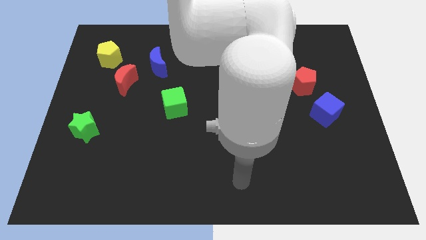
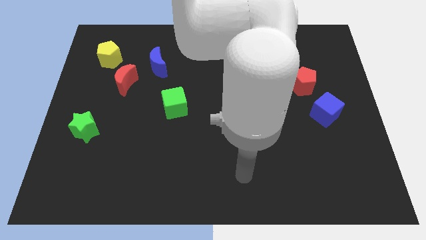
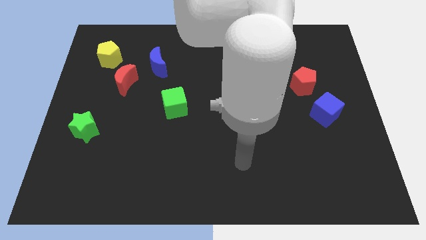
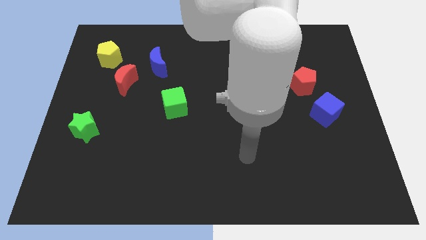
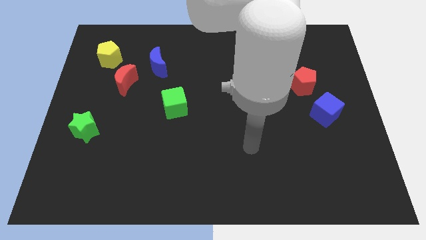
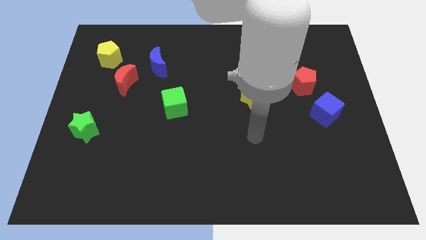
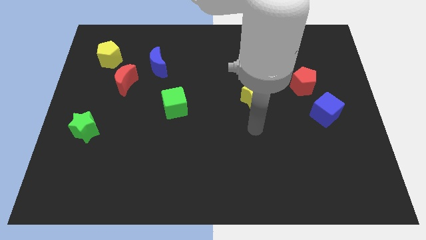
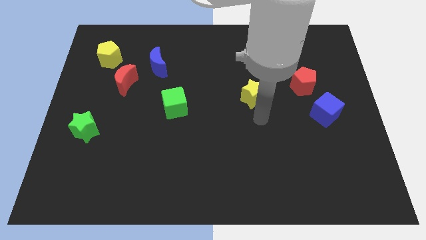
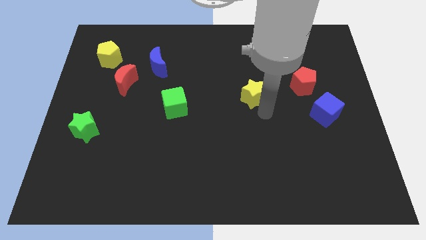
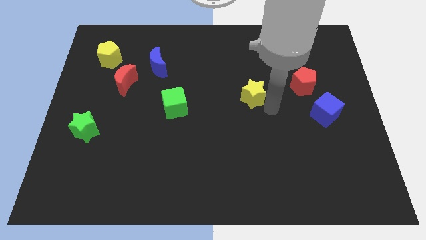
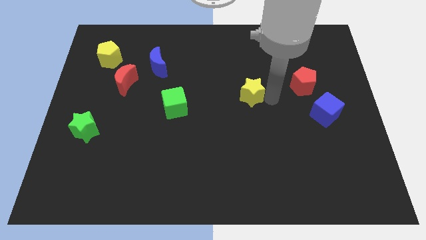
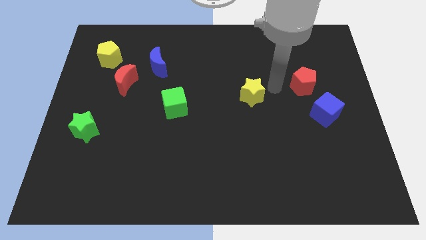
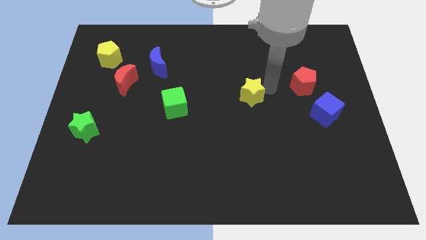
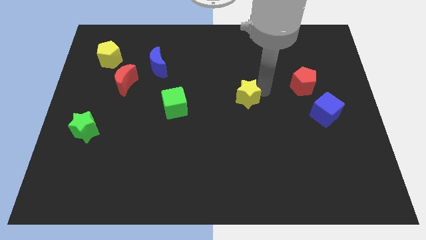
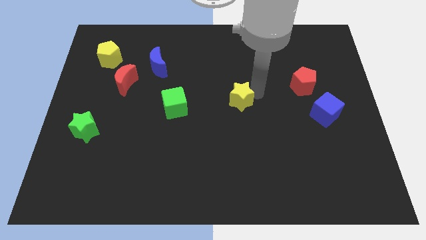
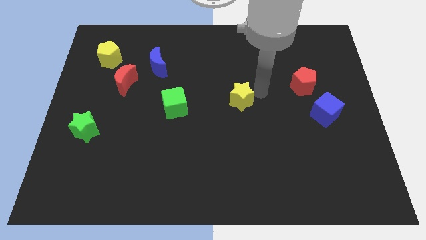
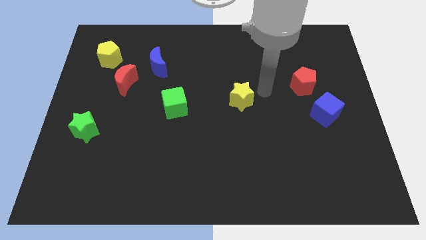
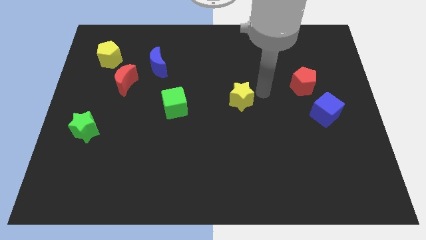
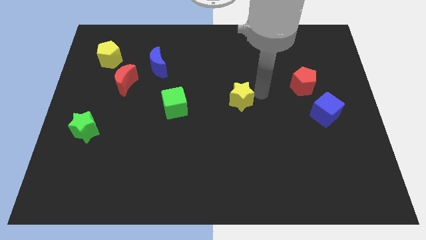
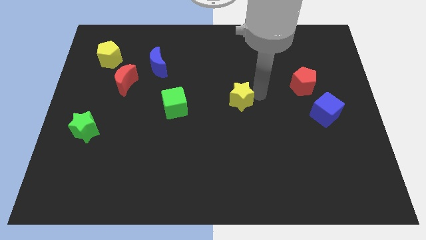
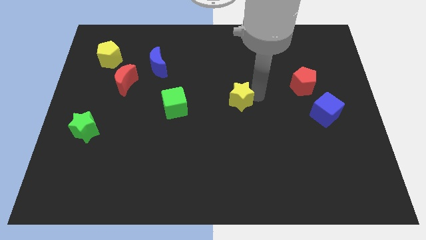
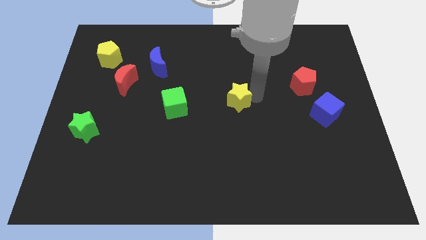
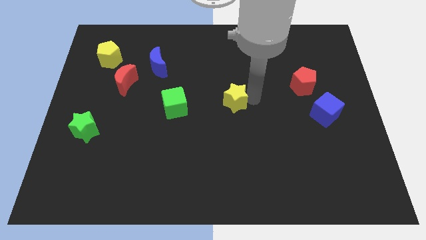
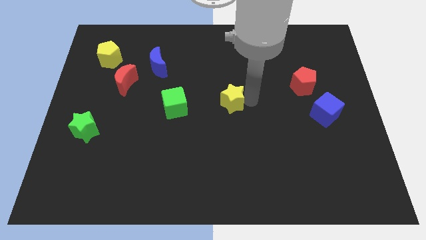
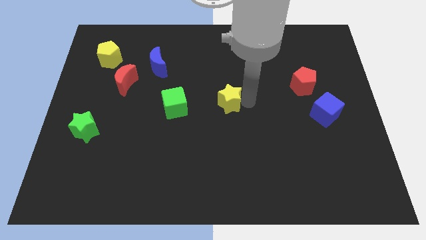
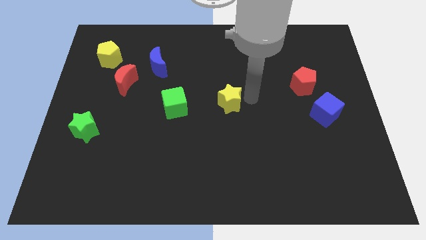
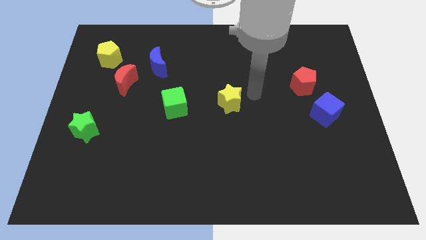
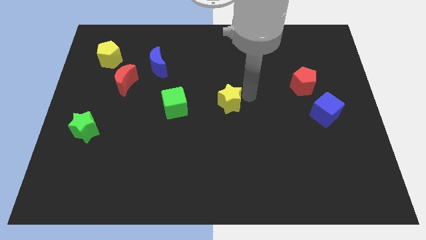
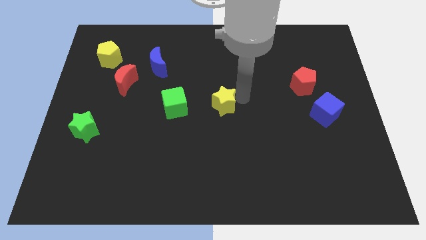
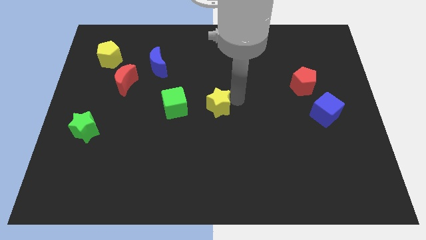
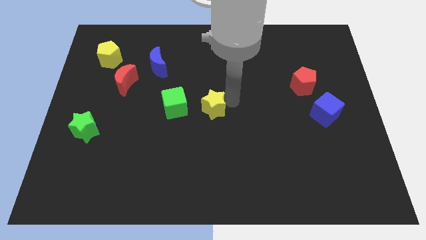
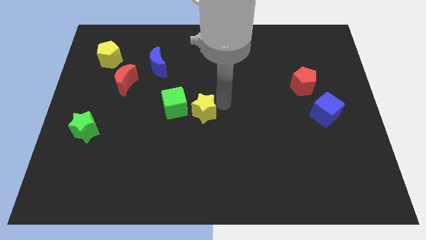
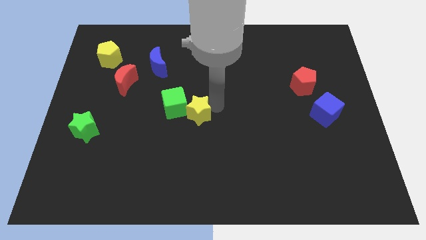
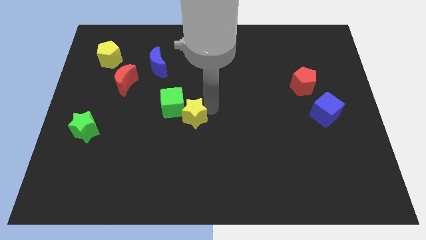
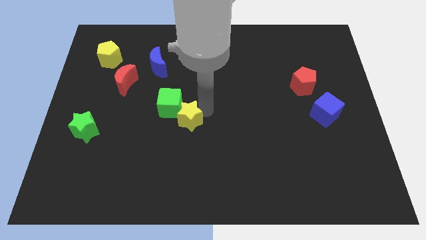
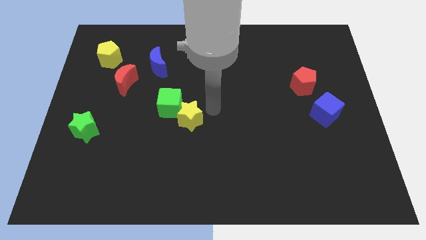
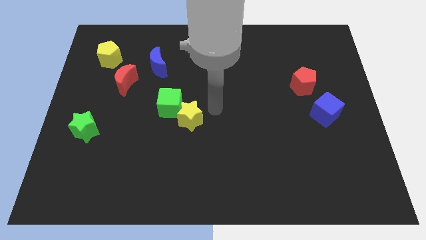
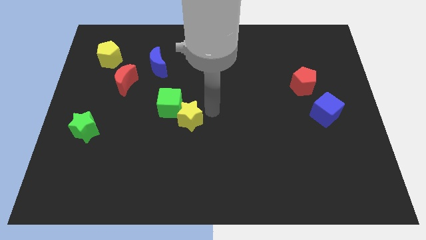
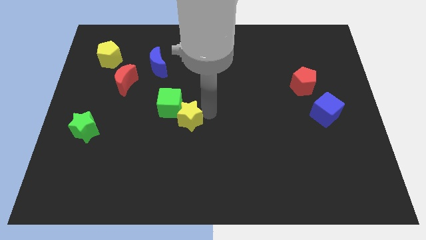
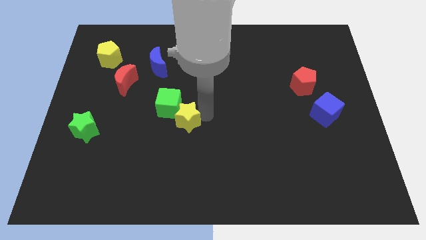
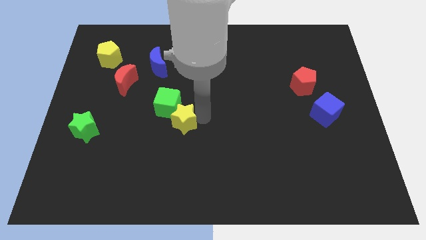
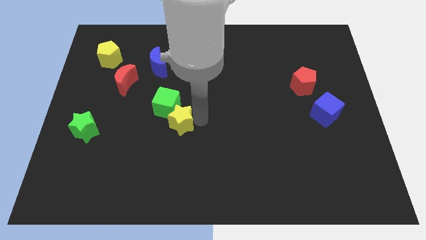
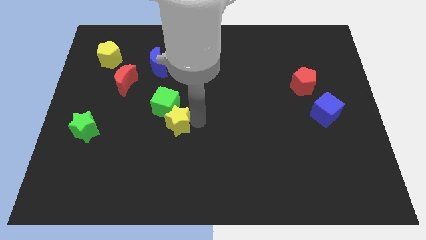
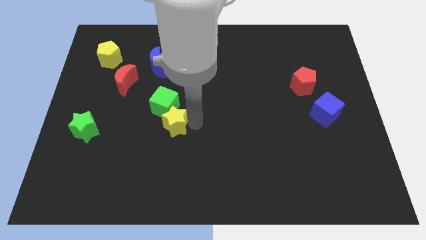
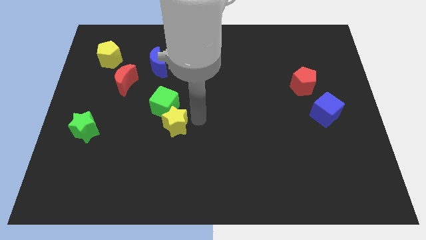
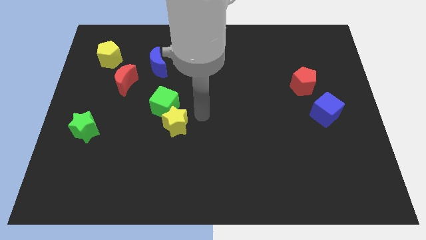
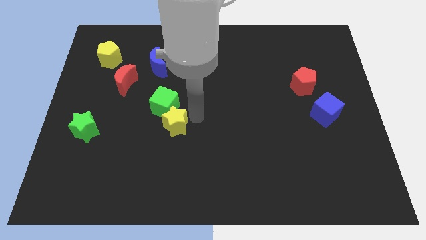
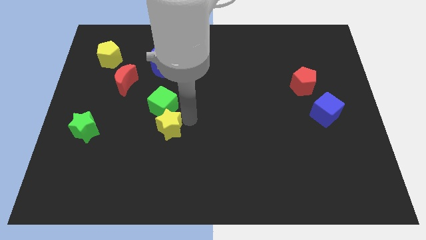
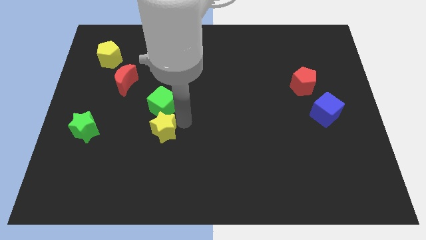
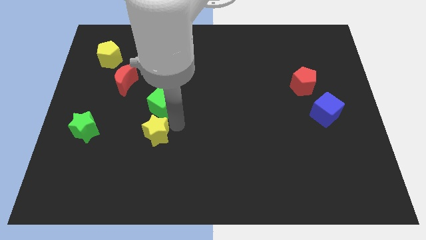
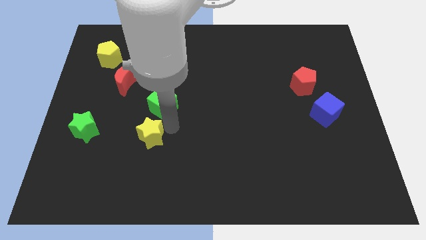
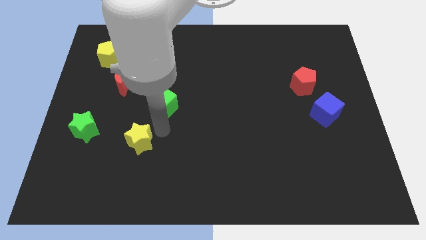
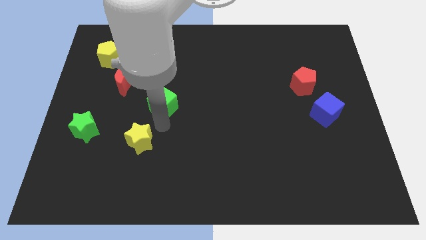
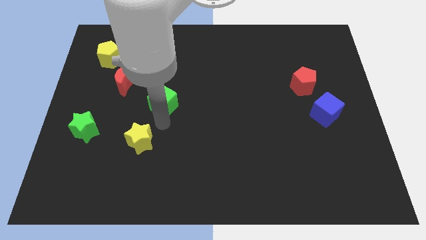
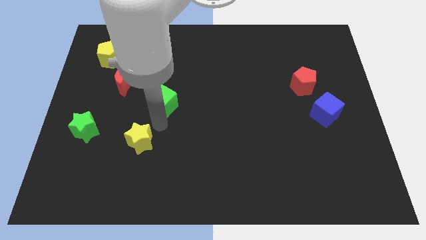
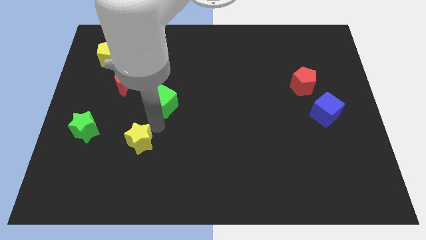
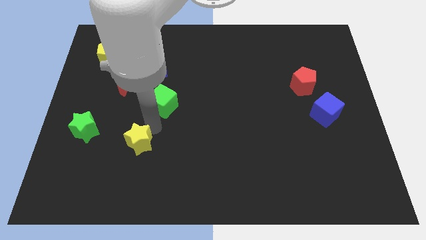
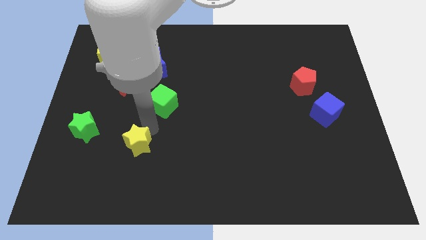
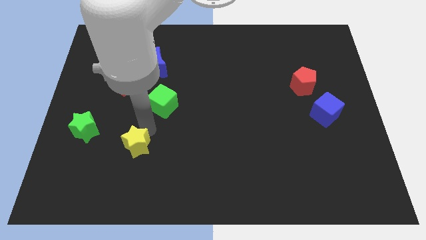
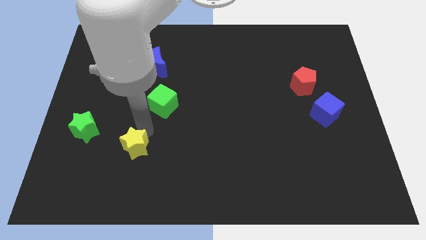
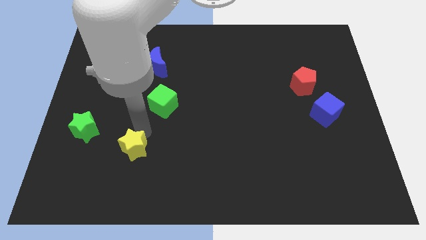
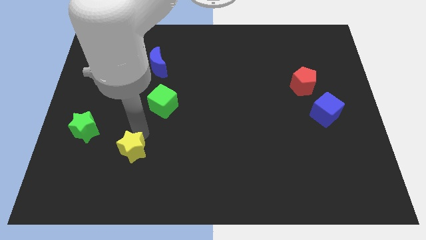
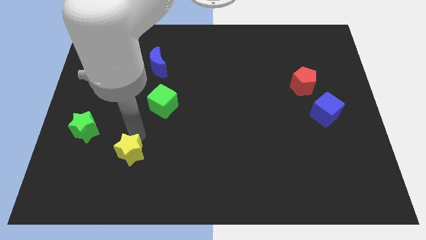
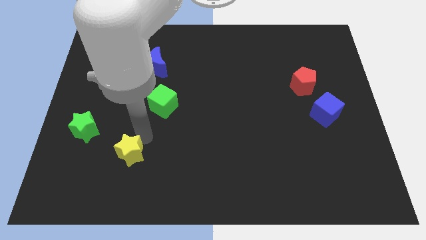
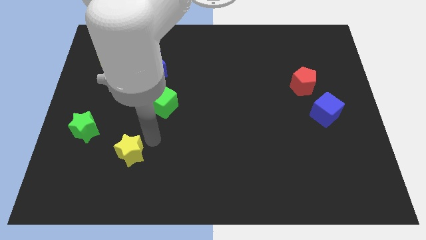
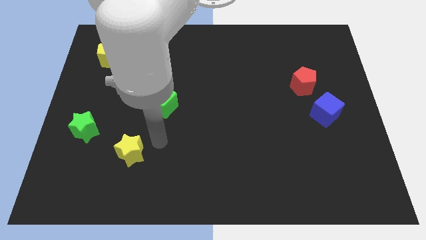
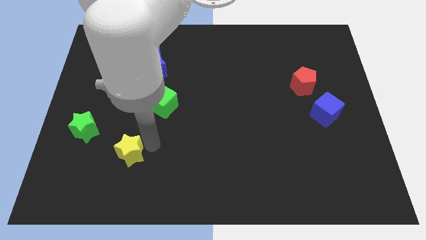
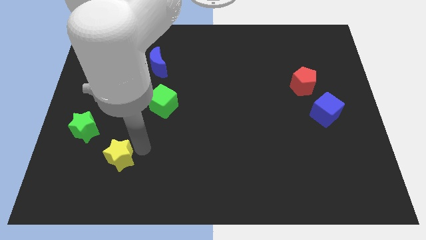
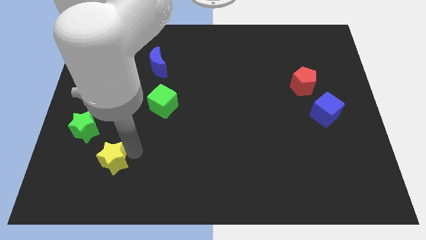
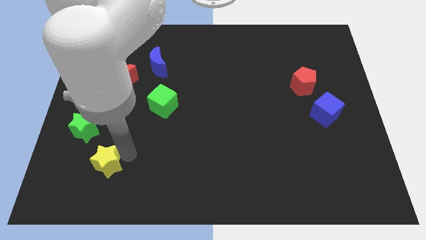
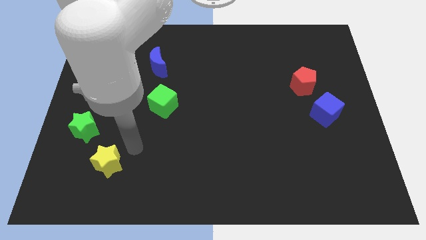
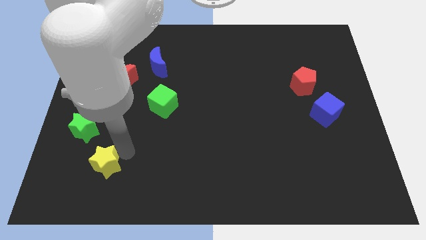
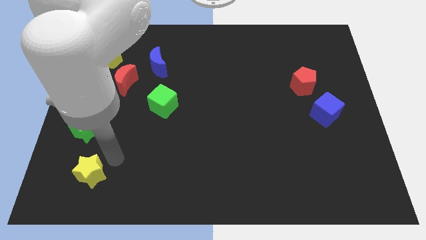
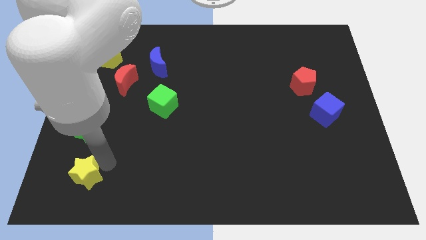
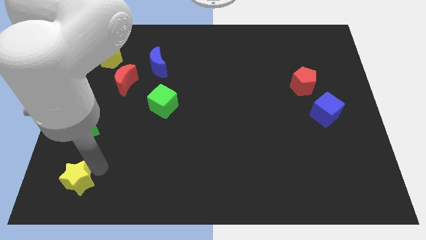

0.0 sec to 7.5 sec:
put the yellow star to the bottom left
